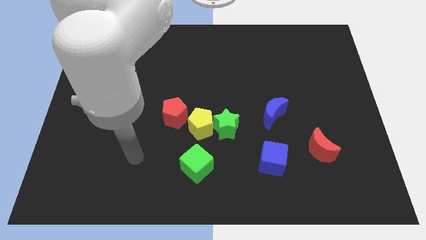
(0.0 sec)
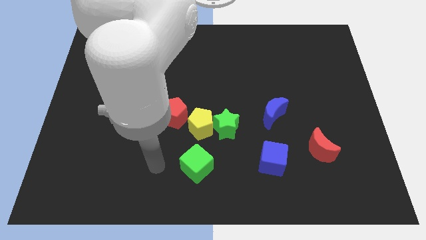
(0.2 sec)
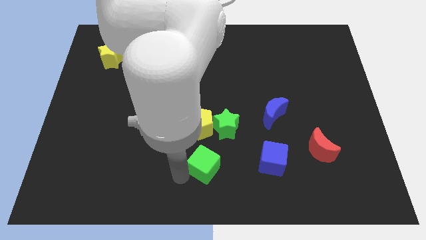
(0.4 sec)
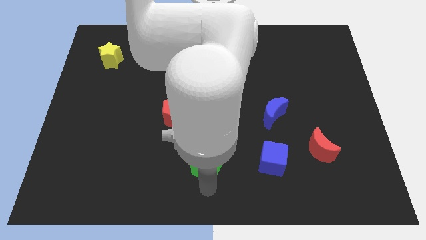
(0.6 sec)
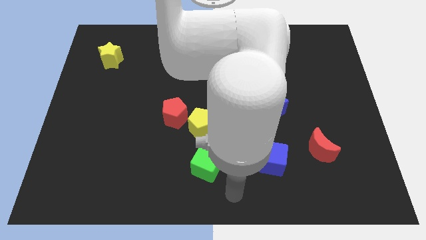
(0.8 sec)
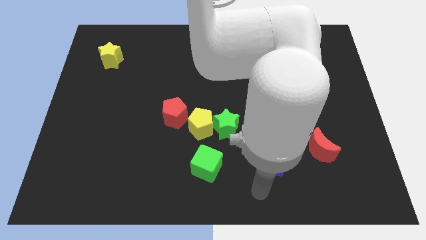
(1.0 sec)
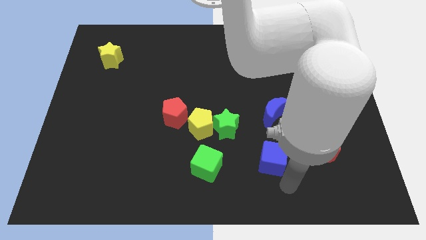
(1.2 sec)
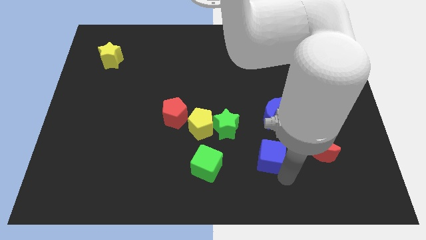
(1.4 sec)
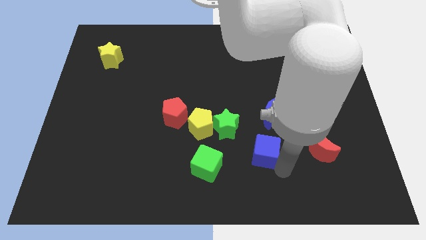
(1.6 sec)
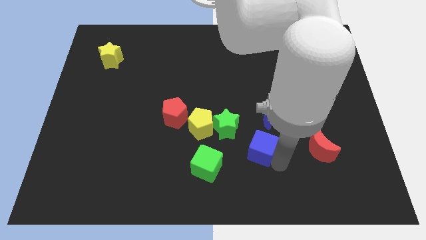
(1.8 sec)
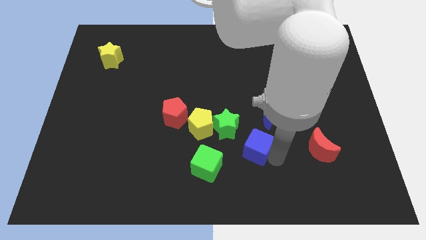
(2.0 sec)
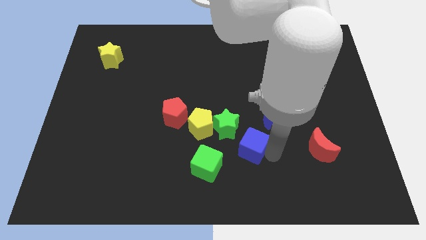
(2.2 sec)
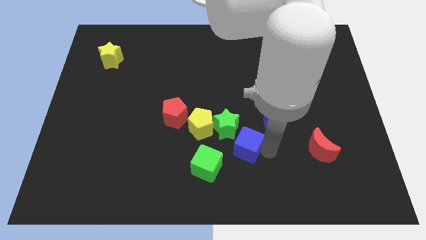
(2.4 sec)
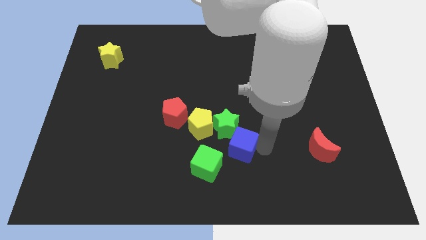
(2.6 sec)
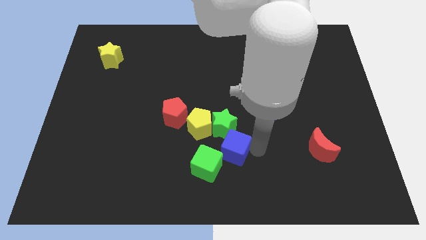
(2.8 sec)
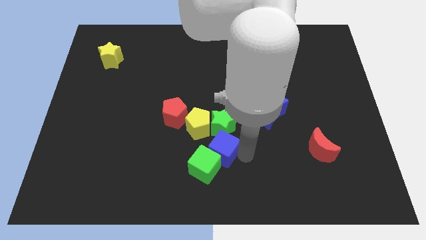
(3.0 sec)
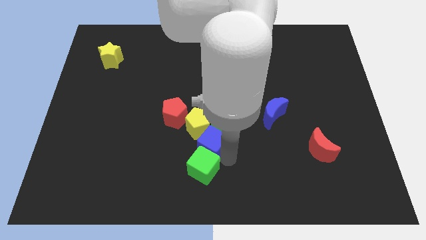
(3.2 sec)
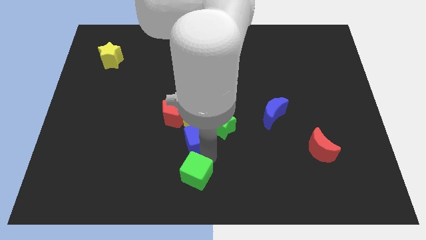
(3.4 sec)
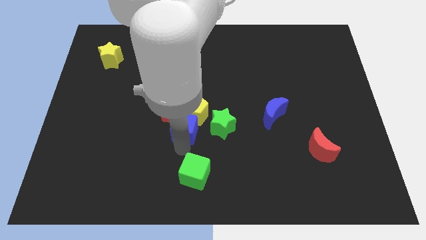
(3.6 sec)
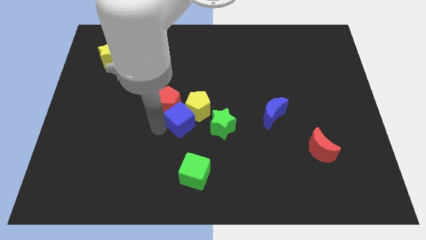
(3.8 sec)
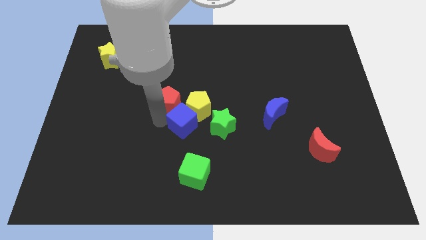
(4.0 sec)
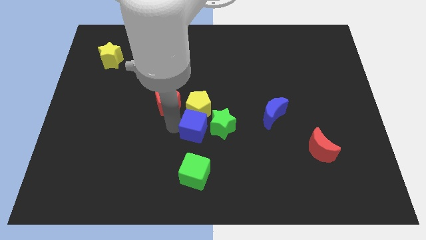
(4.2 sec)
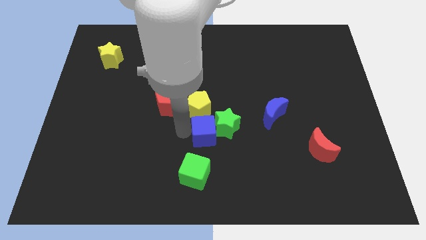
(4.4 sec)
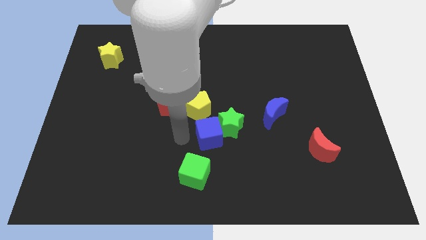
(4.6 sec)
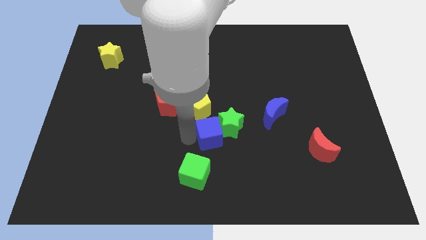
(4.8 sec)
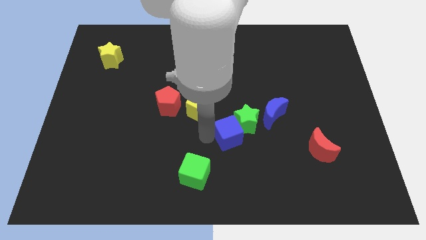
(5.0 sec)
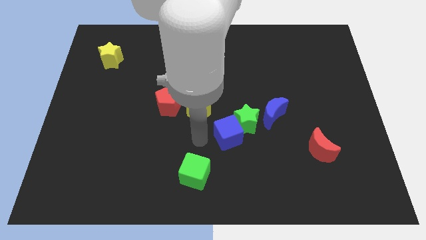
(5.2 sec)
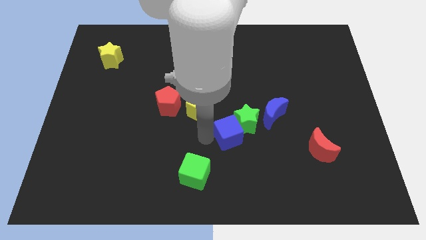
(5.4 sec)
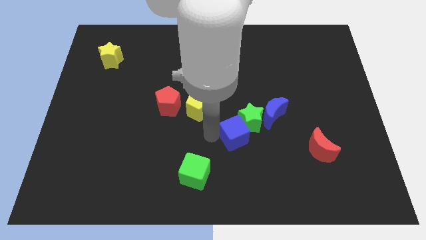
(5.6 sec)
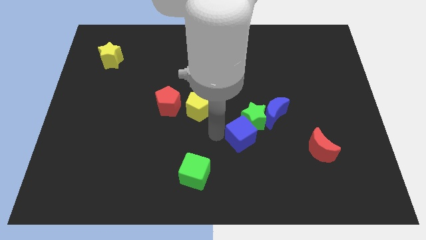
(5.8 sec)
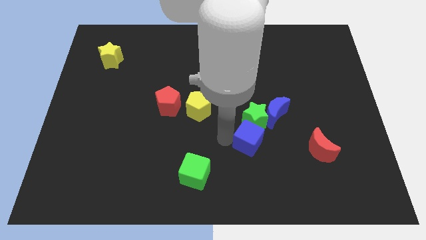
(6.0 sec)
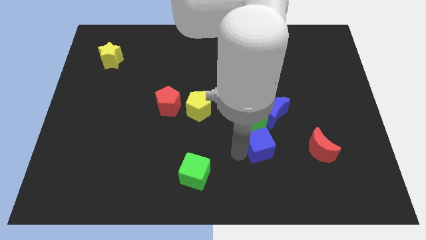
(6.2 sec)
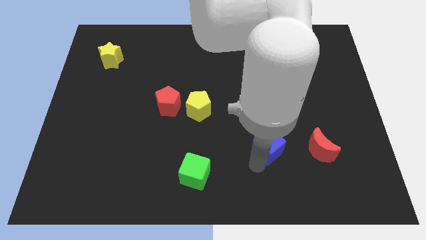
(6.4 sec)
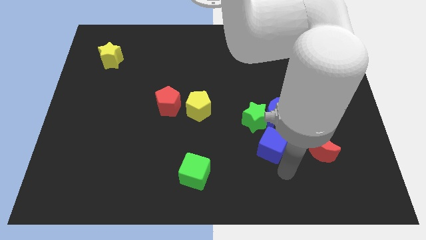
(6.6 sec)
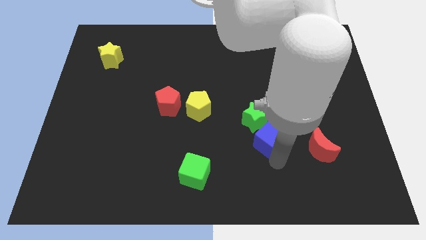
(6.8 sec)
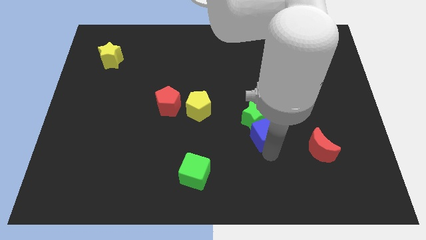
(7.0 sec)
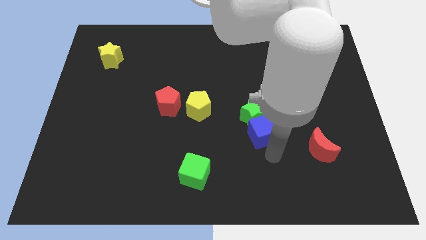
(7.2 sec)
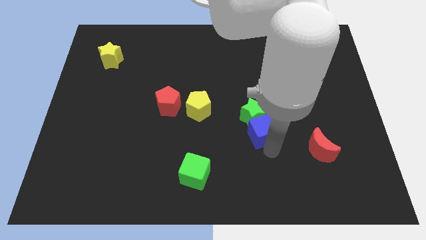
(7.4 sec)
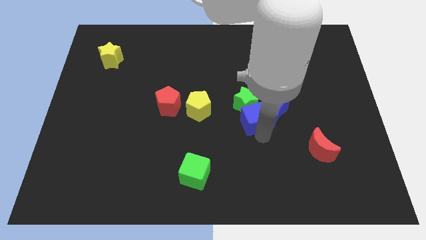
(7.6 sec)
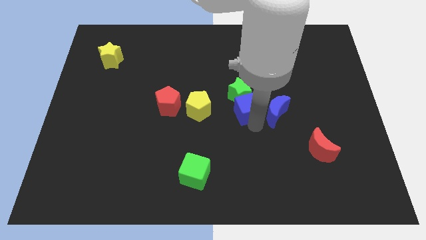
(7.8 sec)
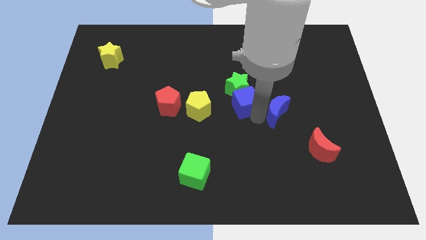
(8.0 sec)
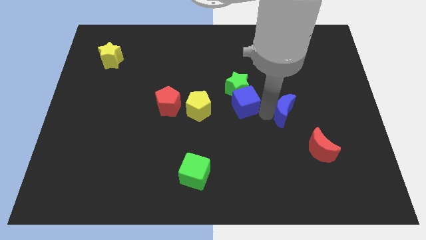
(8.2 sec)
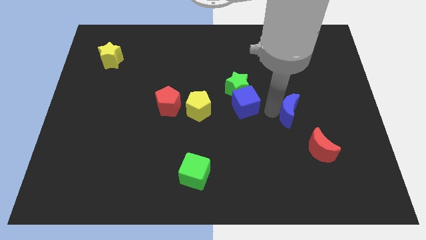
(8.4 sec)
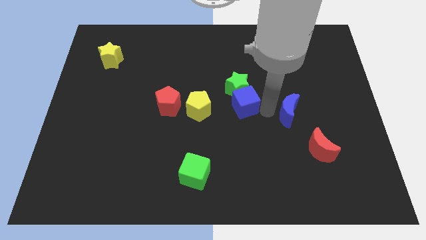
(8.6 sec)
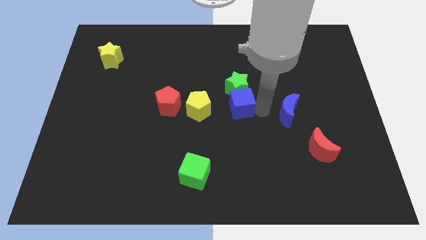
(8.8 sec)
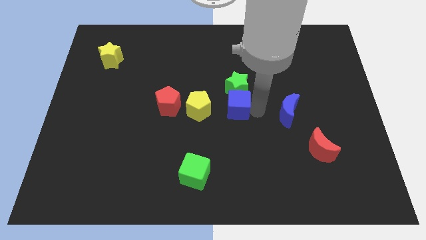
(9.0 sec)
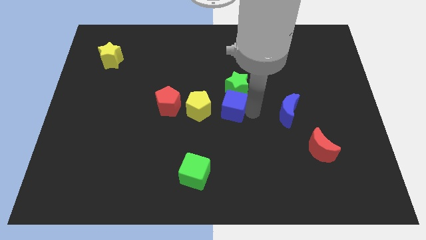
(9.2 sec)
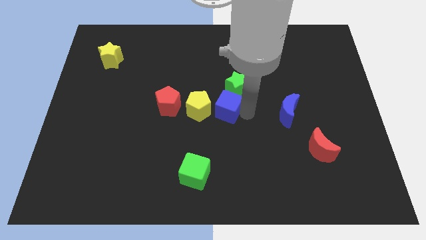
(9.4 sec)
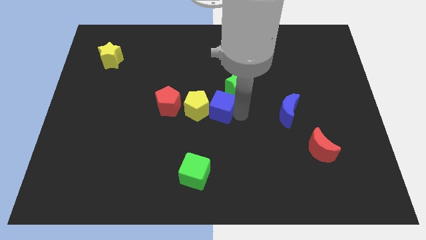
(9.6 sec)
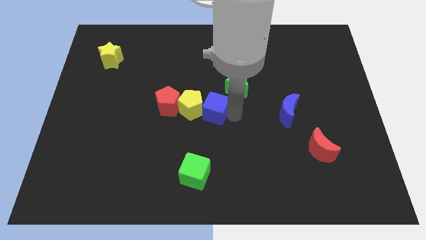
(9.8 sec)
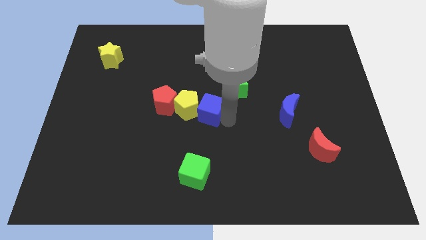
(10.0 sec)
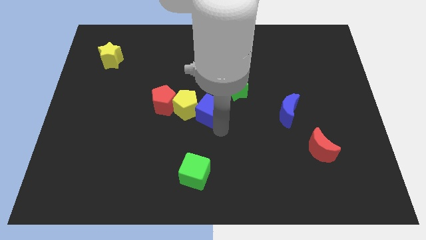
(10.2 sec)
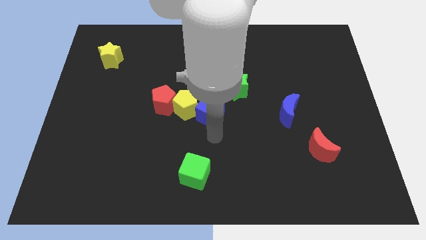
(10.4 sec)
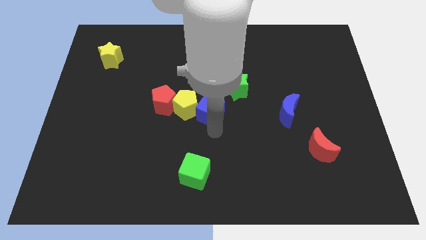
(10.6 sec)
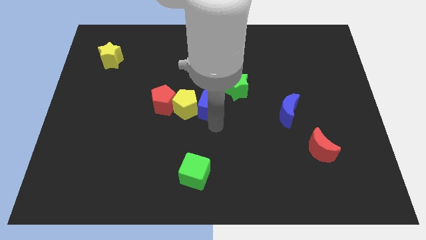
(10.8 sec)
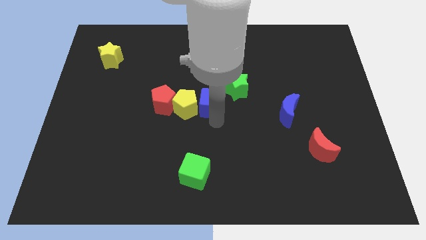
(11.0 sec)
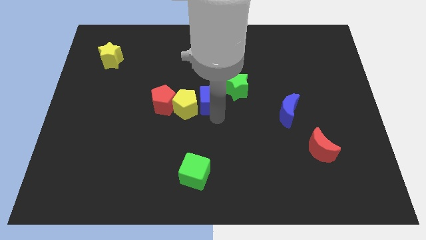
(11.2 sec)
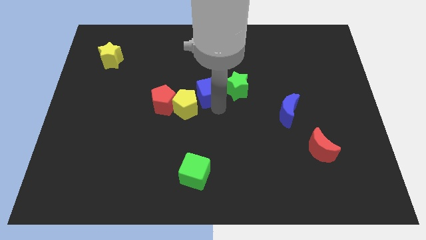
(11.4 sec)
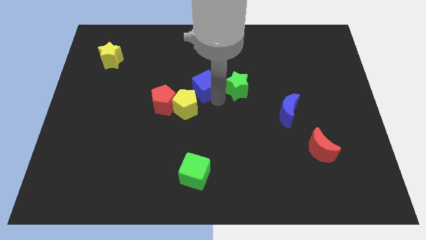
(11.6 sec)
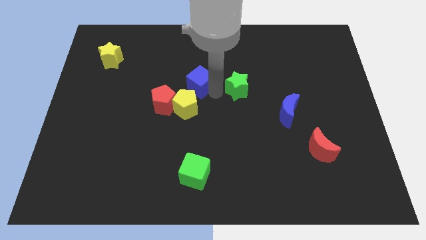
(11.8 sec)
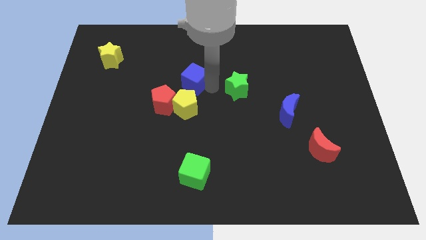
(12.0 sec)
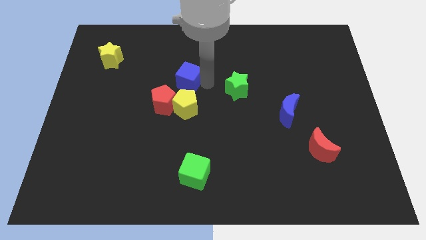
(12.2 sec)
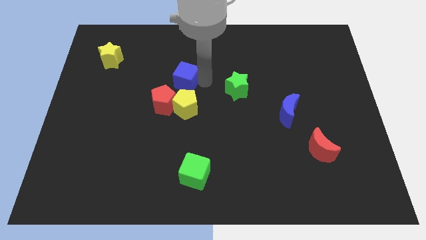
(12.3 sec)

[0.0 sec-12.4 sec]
slide the blue cube to the top side of the red pentagon
